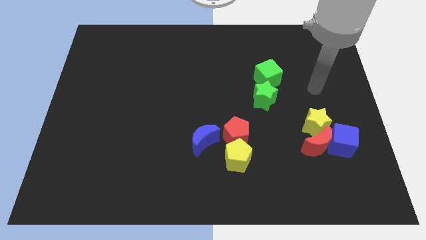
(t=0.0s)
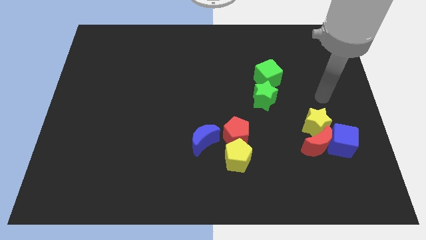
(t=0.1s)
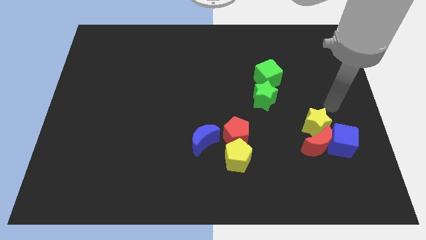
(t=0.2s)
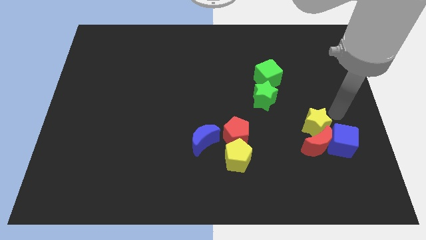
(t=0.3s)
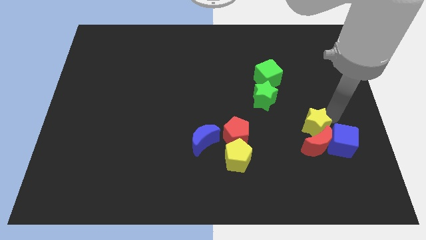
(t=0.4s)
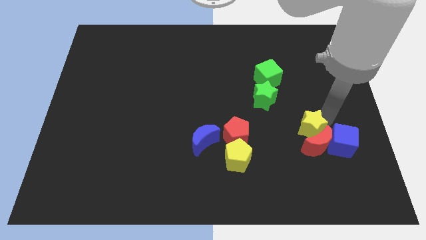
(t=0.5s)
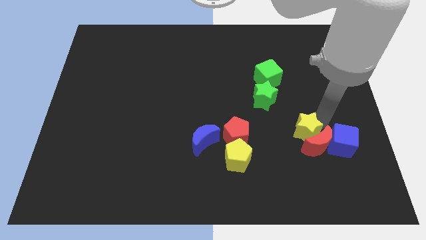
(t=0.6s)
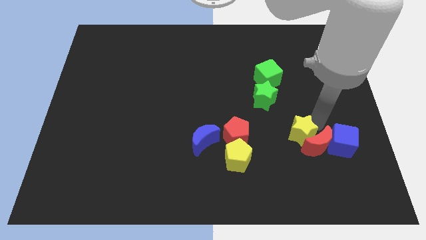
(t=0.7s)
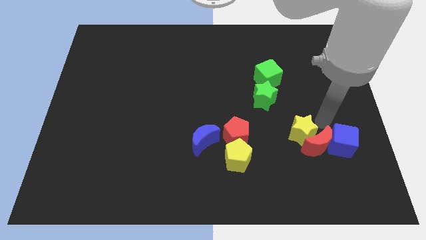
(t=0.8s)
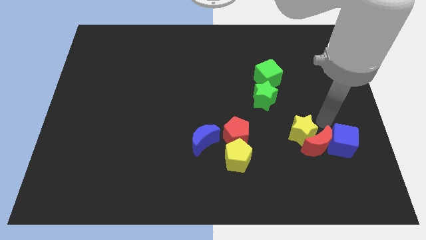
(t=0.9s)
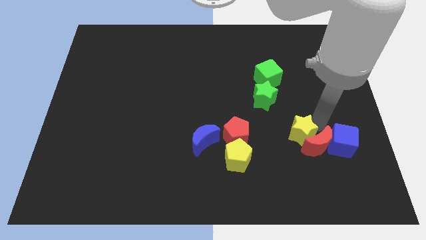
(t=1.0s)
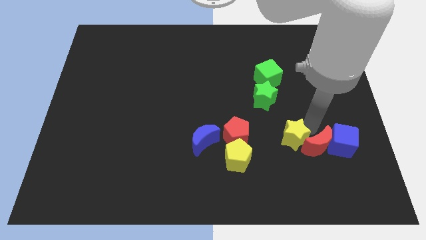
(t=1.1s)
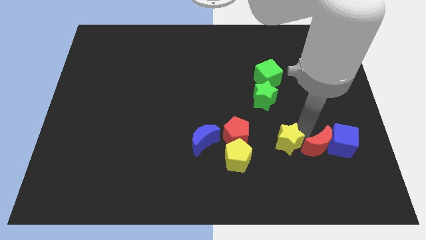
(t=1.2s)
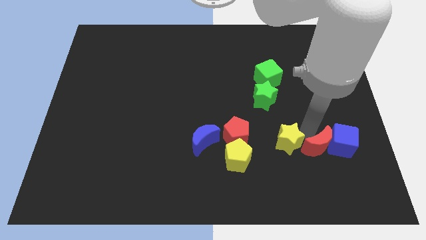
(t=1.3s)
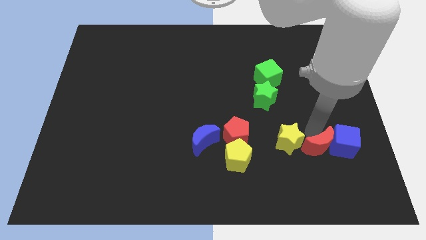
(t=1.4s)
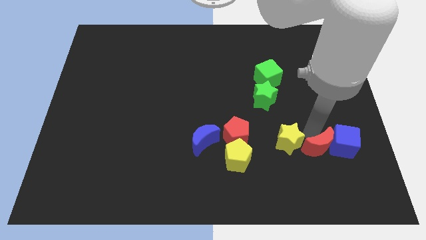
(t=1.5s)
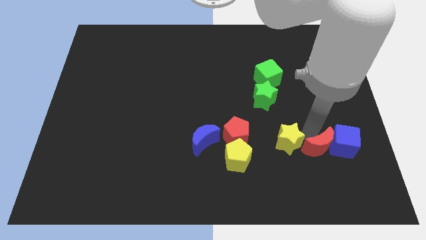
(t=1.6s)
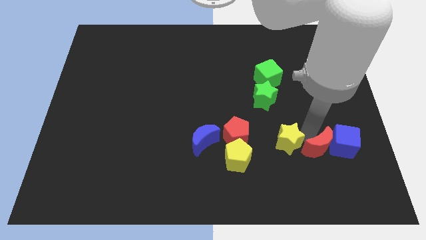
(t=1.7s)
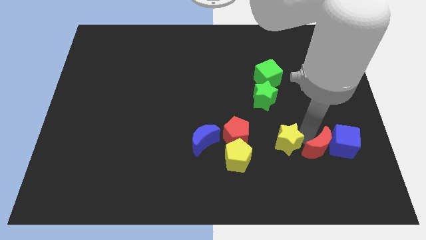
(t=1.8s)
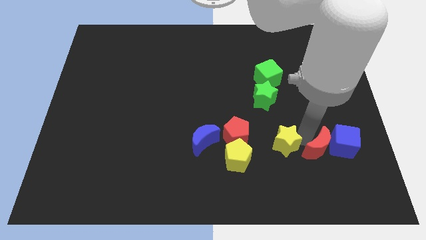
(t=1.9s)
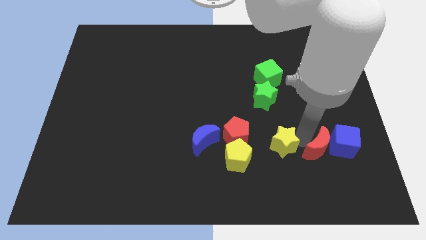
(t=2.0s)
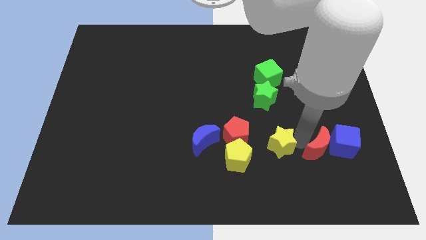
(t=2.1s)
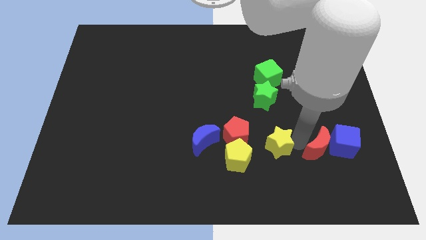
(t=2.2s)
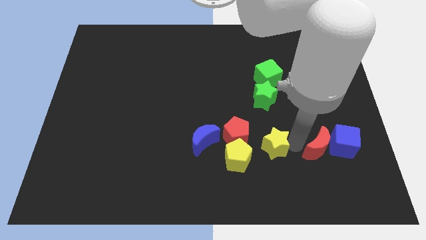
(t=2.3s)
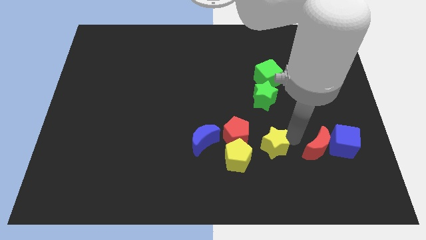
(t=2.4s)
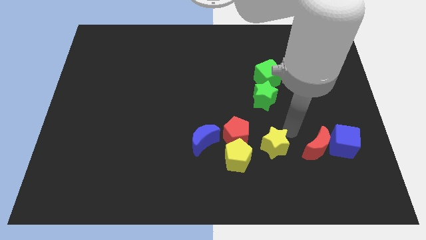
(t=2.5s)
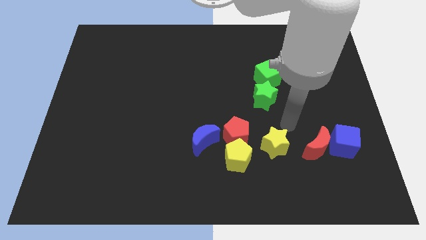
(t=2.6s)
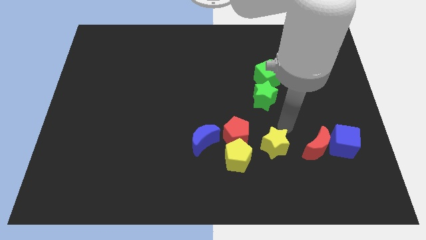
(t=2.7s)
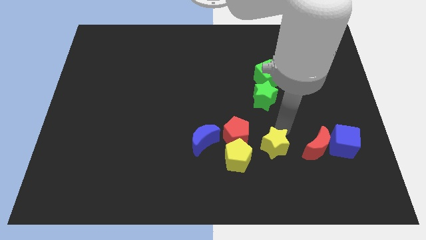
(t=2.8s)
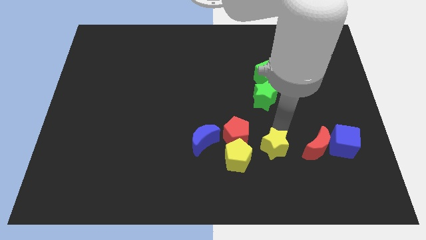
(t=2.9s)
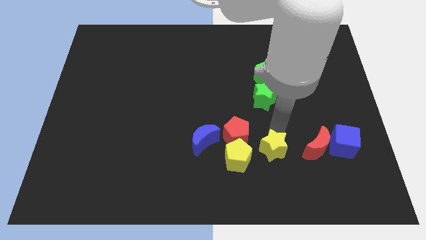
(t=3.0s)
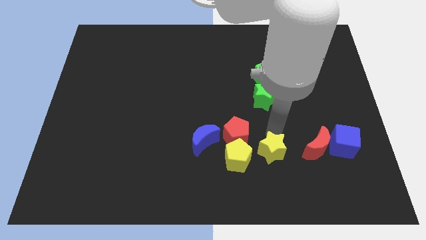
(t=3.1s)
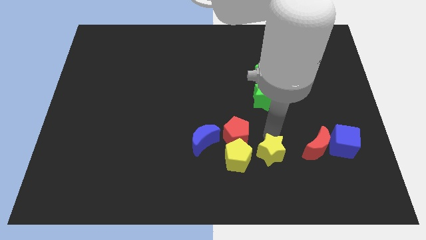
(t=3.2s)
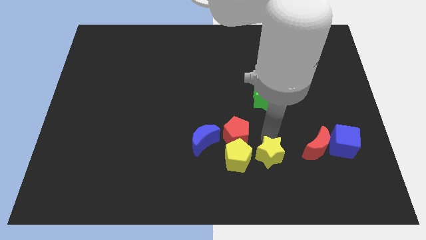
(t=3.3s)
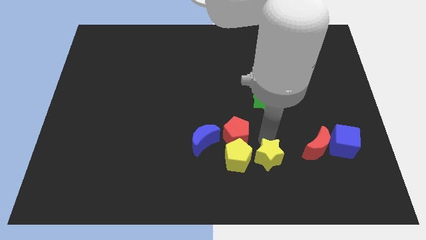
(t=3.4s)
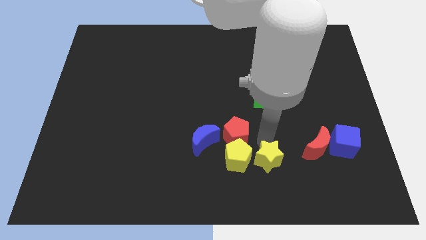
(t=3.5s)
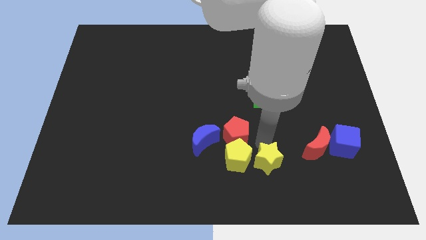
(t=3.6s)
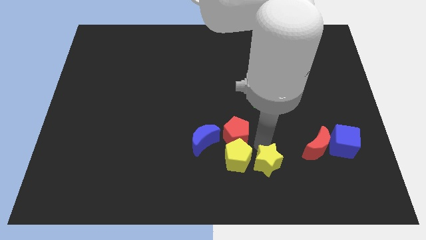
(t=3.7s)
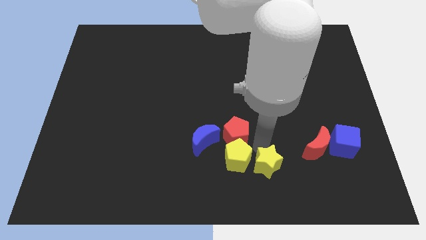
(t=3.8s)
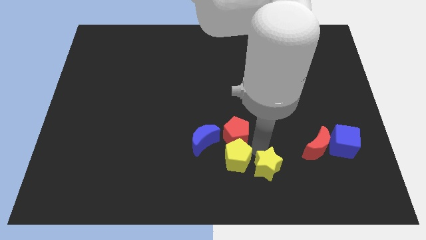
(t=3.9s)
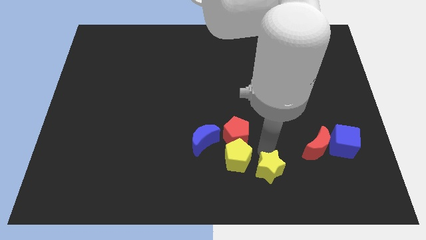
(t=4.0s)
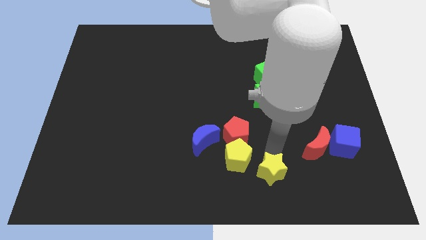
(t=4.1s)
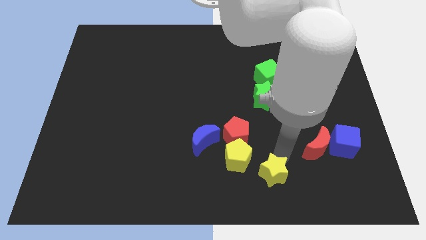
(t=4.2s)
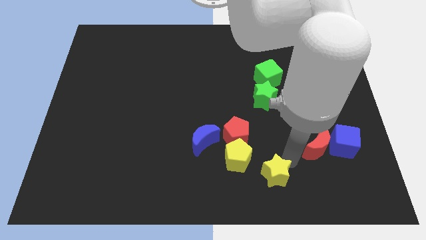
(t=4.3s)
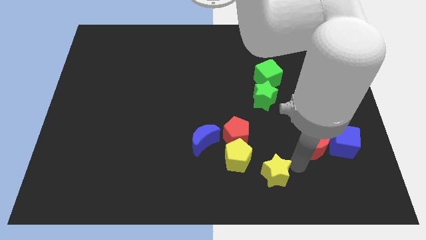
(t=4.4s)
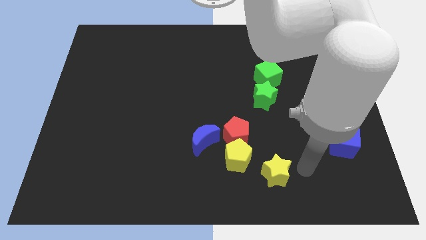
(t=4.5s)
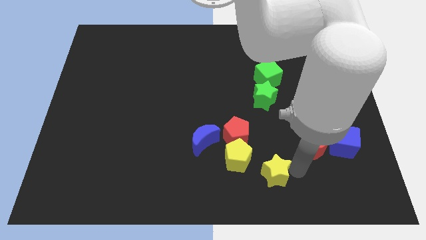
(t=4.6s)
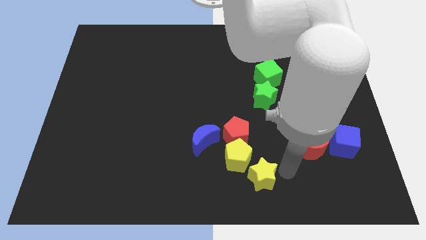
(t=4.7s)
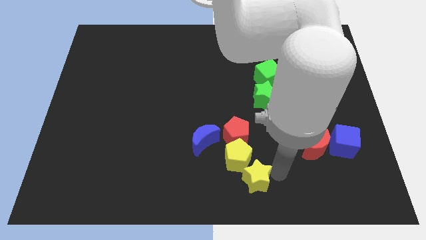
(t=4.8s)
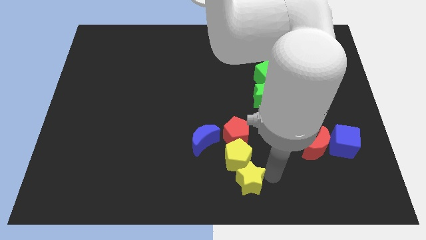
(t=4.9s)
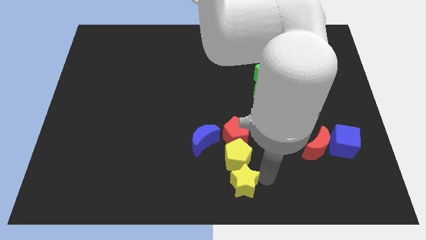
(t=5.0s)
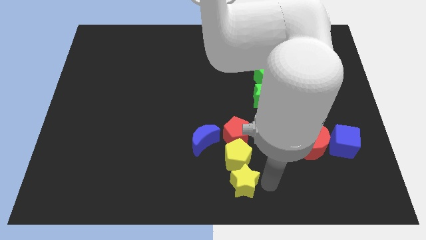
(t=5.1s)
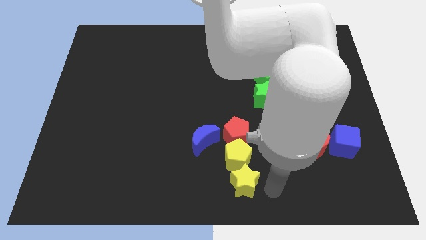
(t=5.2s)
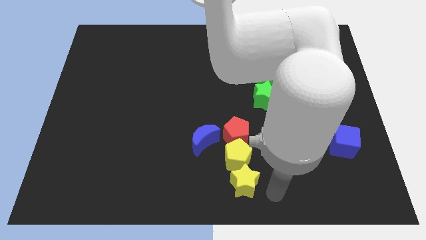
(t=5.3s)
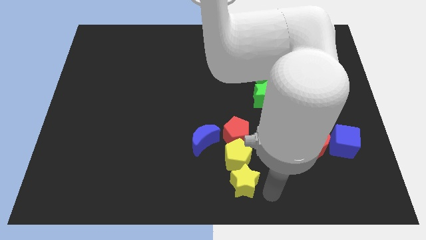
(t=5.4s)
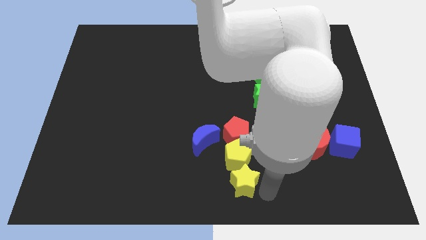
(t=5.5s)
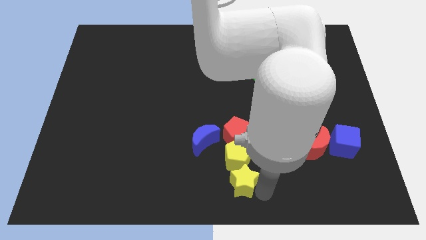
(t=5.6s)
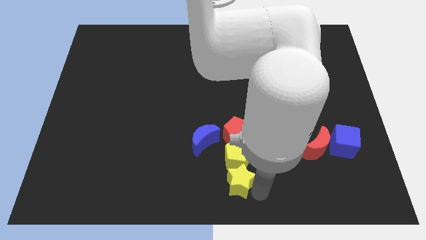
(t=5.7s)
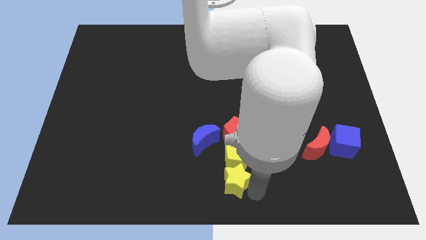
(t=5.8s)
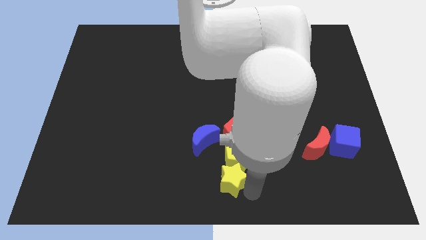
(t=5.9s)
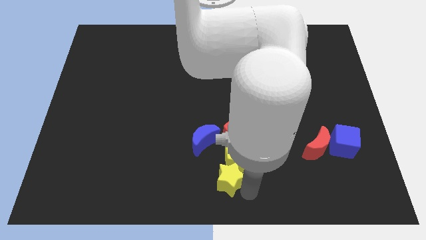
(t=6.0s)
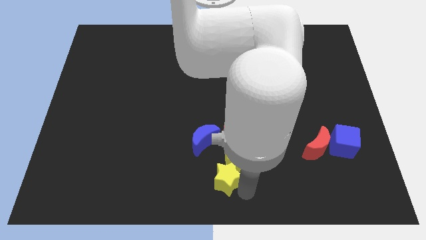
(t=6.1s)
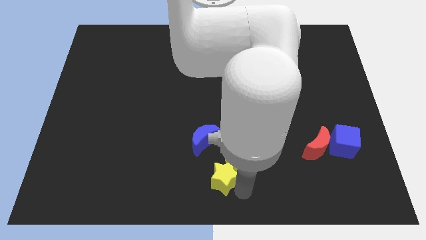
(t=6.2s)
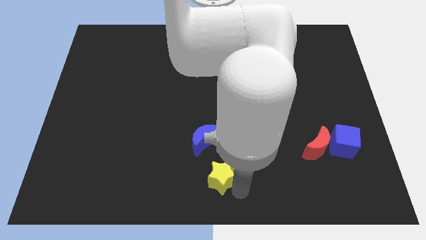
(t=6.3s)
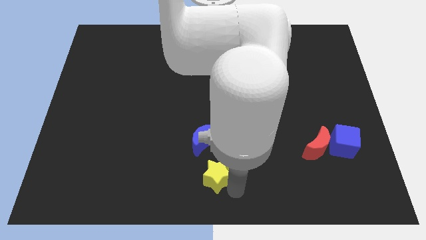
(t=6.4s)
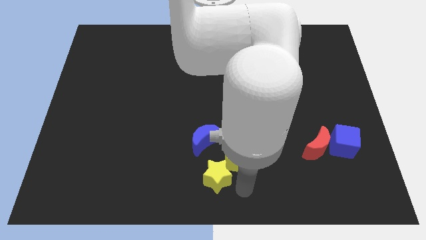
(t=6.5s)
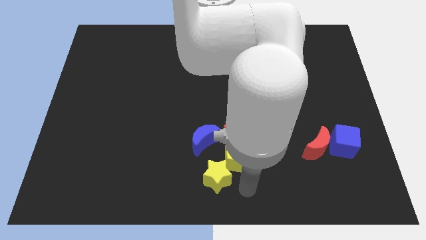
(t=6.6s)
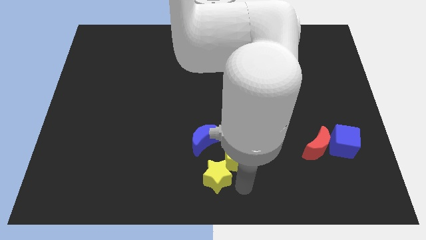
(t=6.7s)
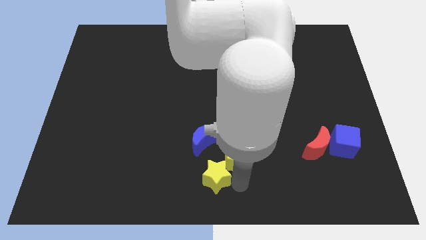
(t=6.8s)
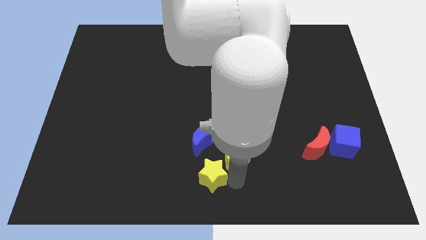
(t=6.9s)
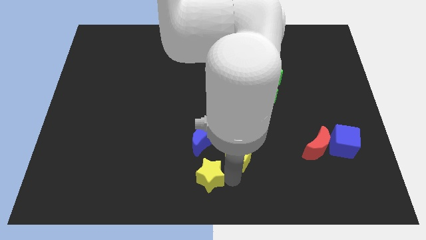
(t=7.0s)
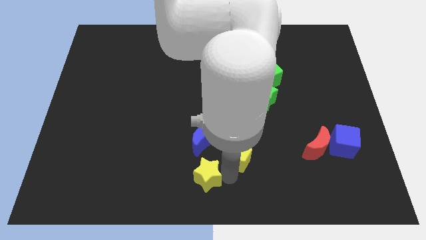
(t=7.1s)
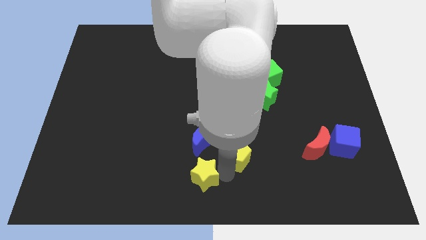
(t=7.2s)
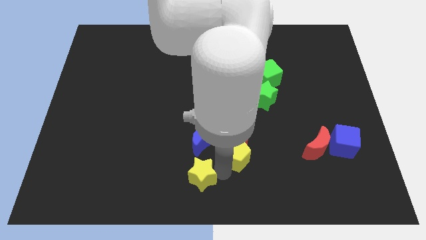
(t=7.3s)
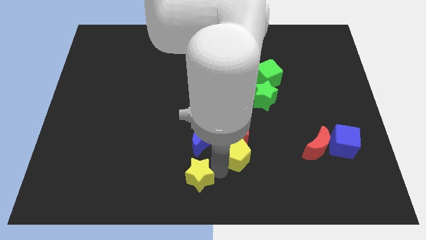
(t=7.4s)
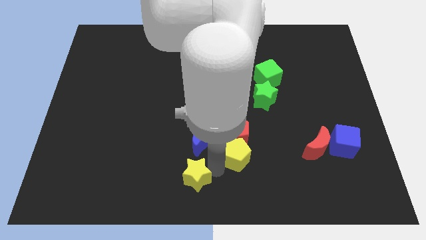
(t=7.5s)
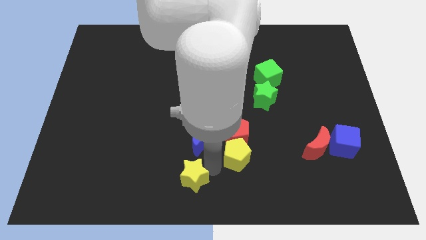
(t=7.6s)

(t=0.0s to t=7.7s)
move the yellow star to the bottom left side of the blue moon
